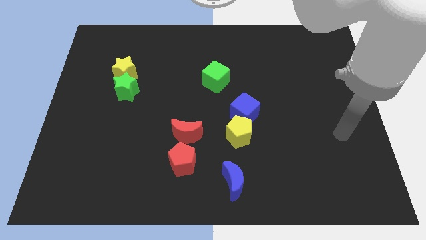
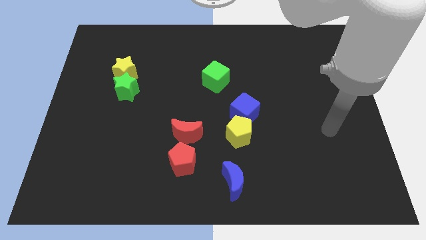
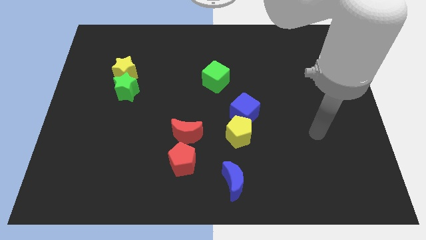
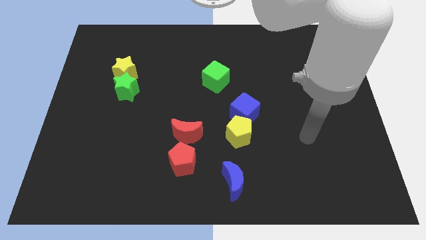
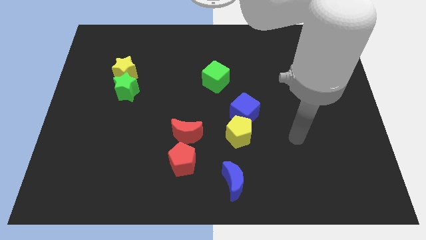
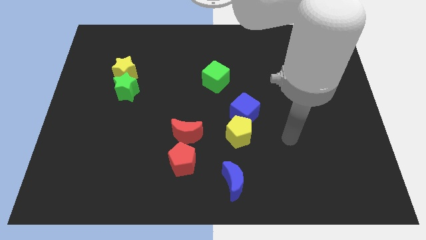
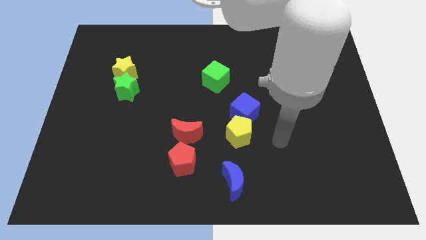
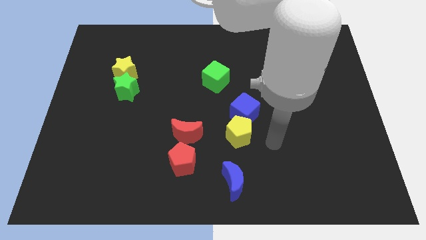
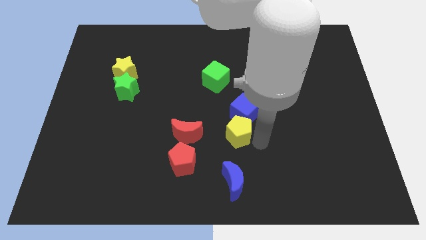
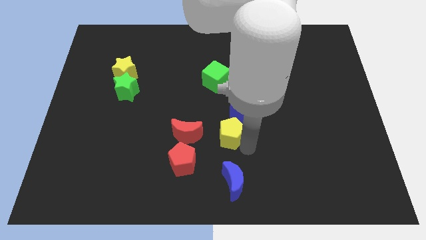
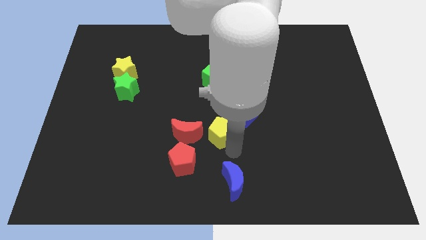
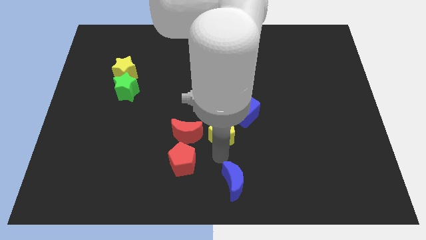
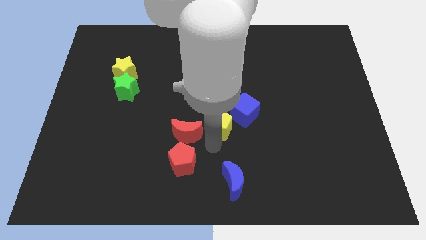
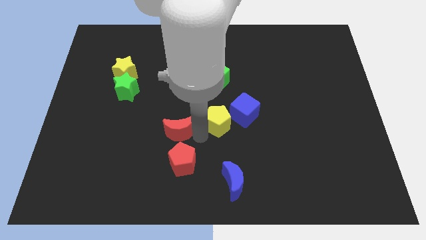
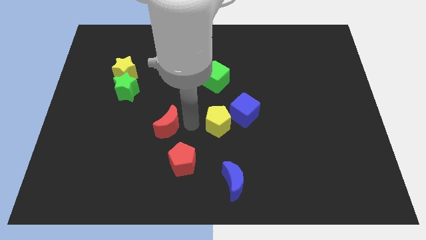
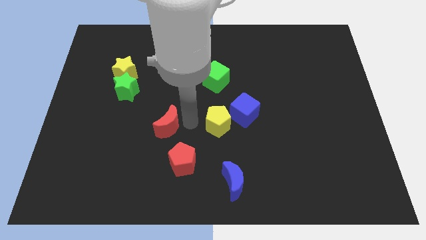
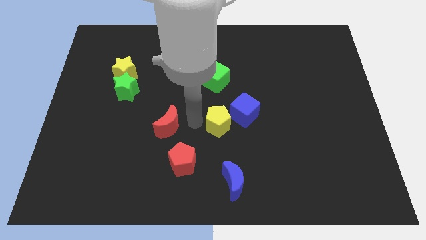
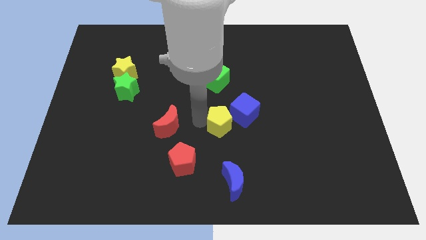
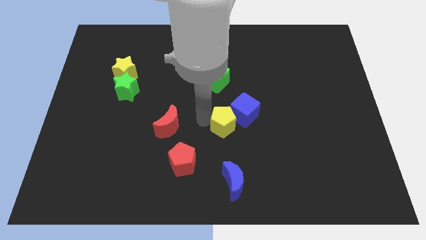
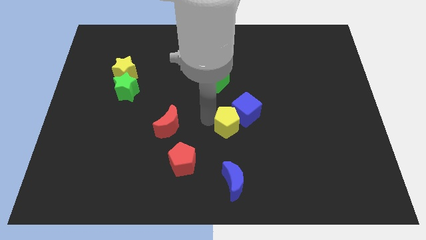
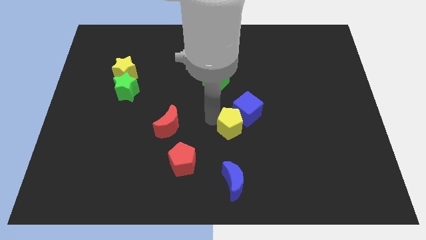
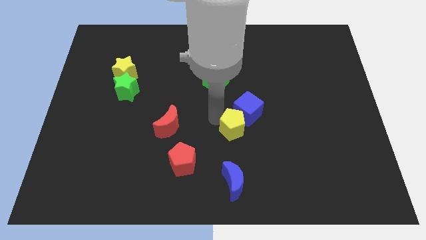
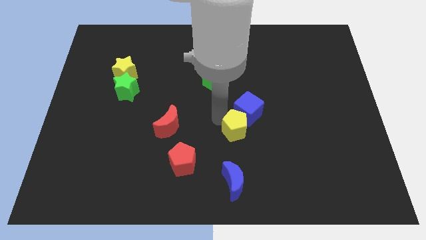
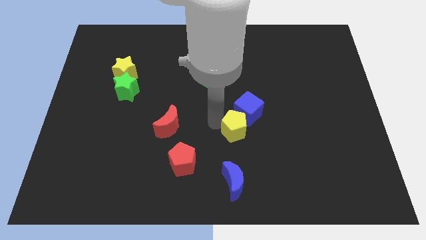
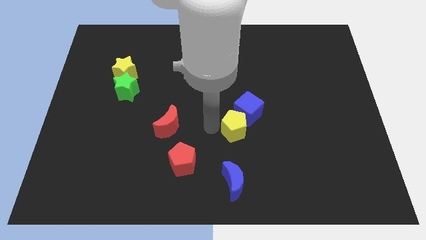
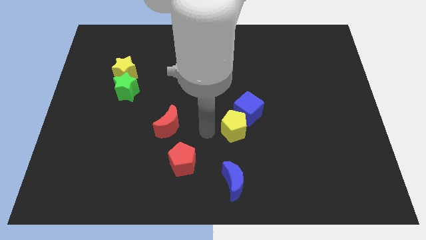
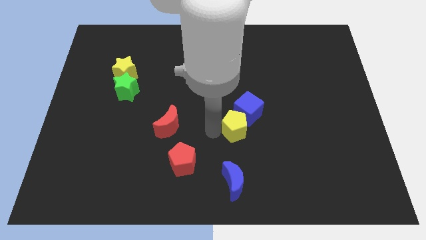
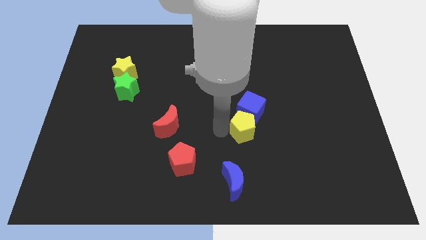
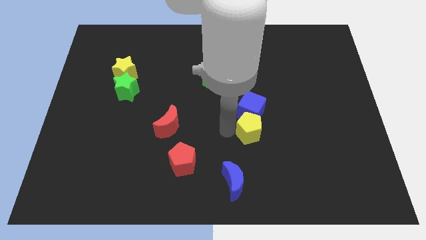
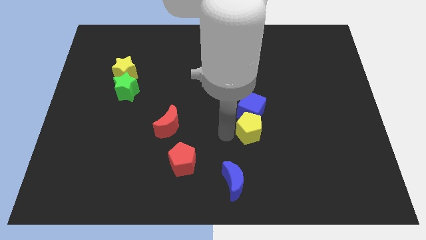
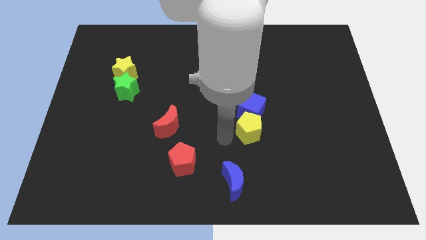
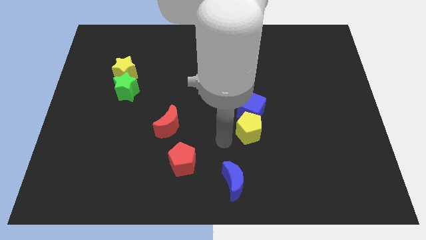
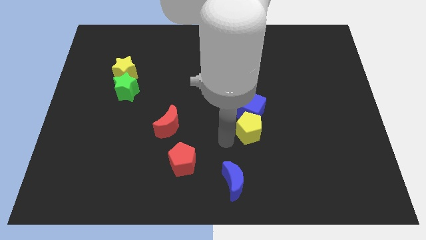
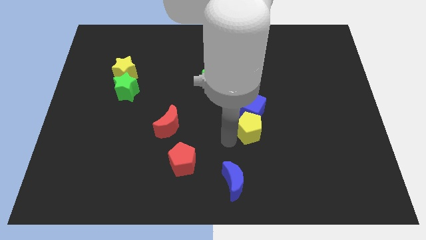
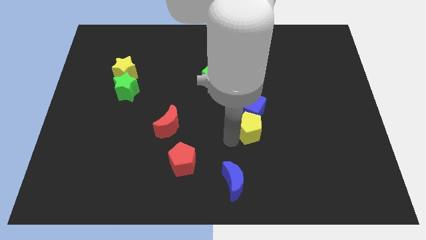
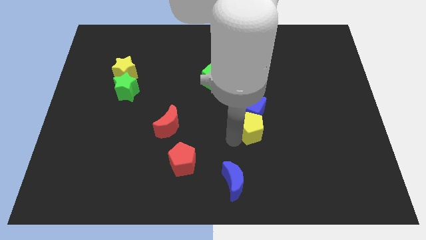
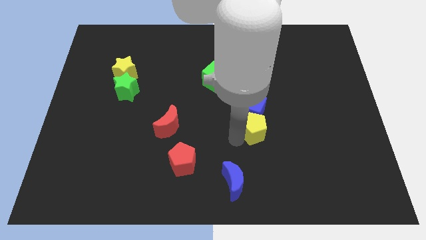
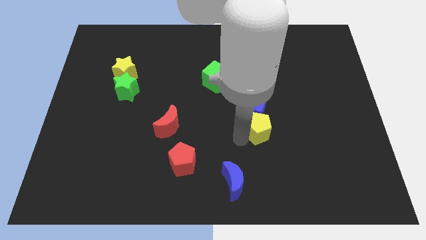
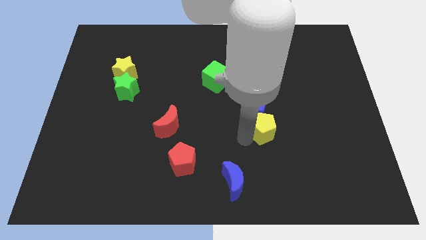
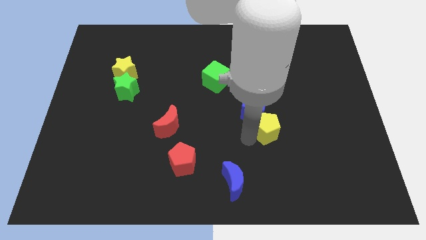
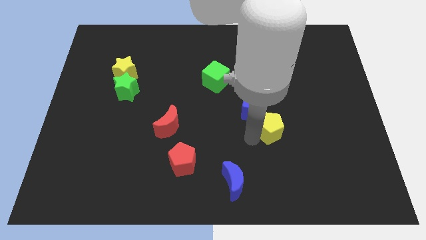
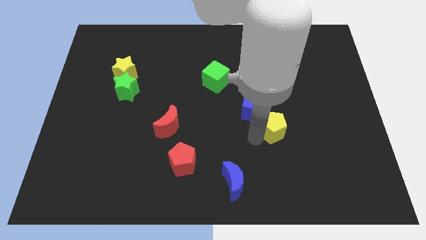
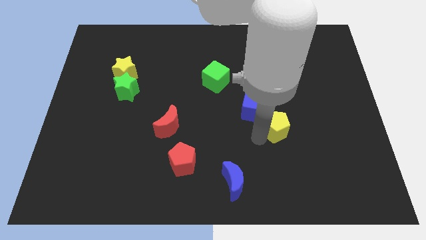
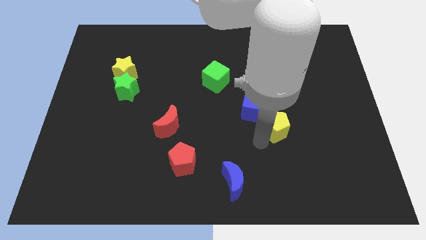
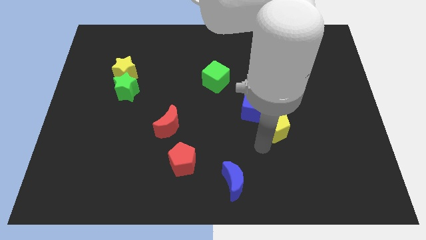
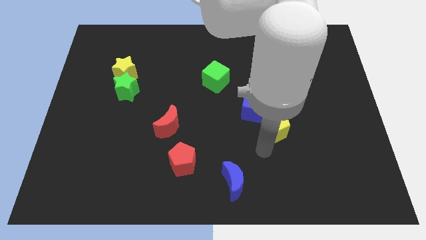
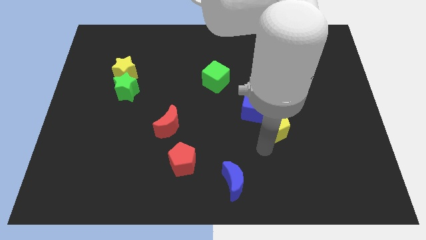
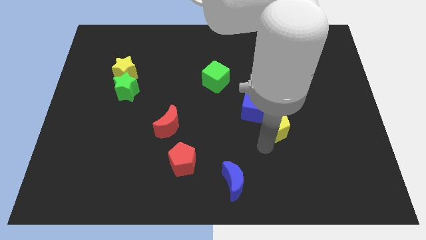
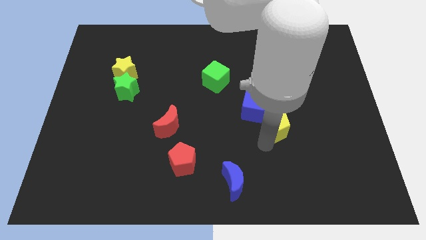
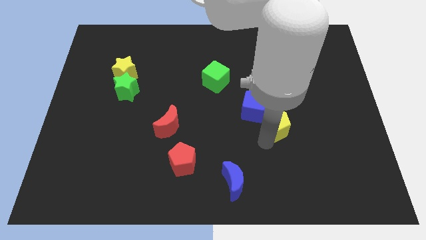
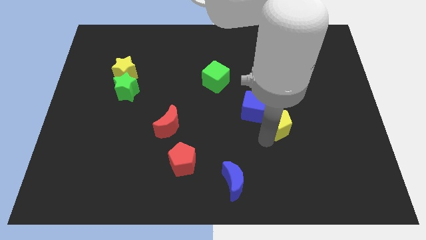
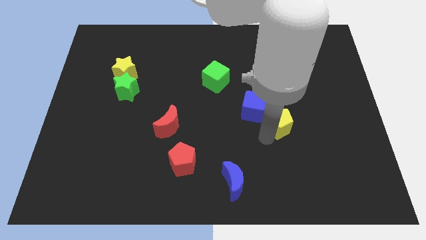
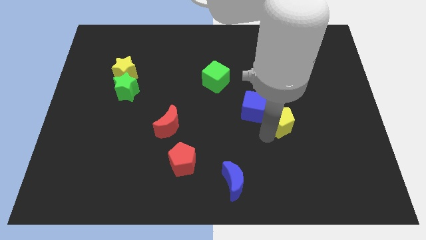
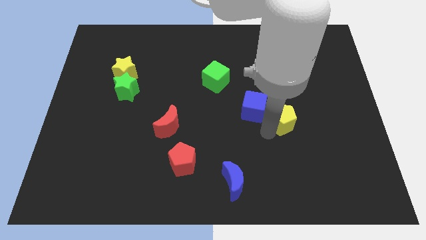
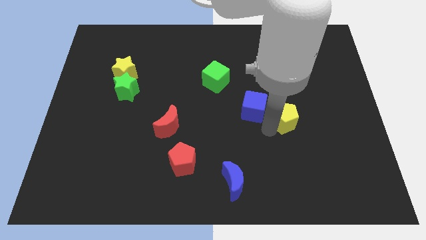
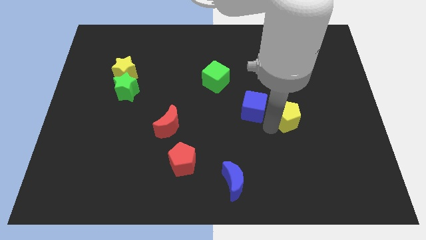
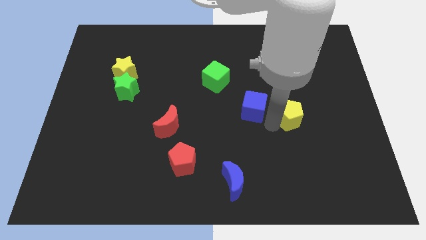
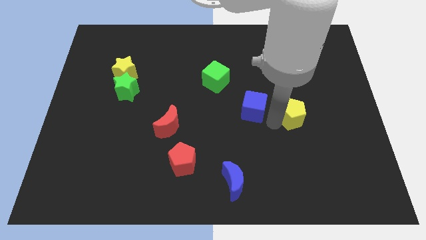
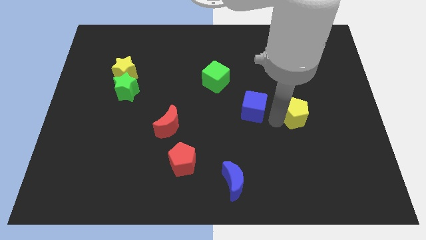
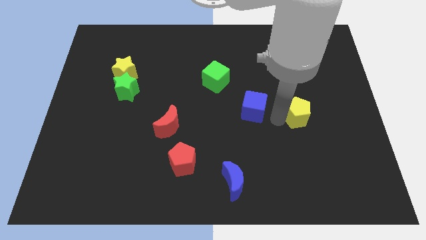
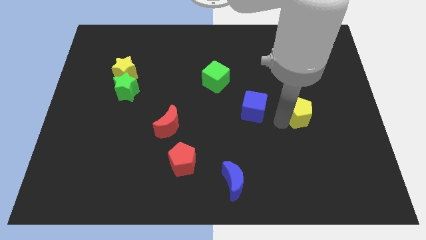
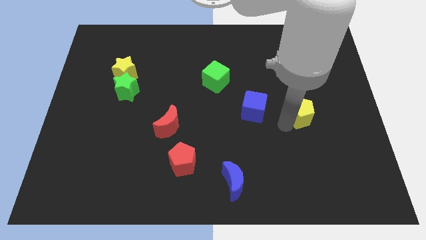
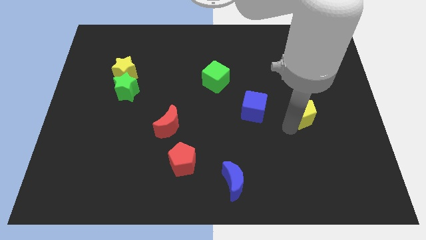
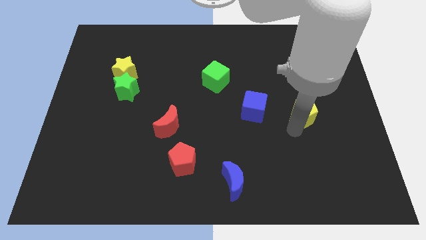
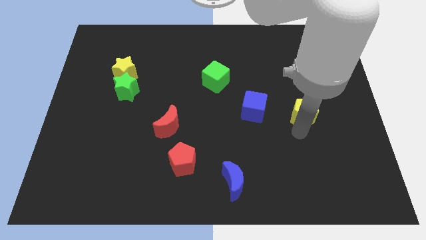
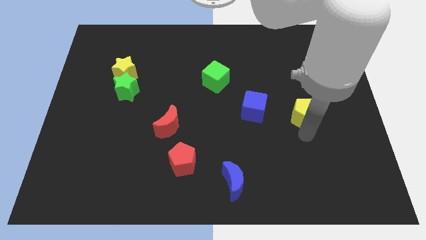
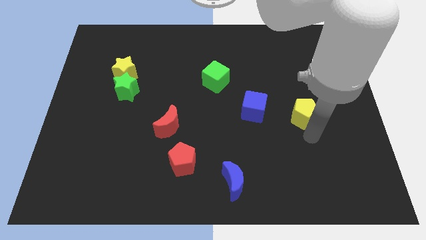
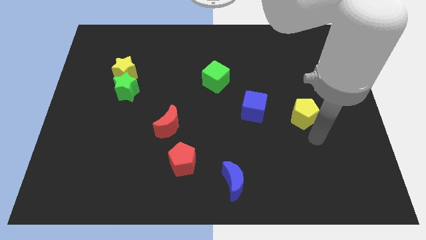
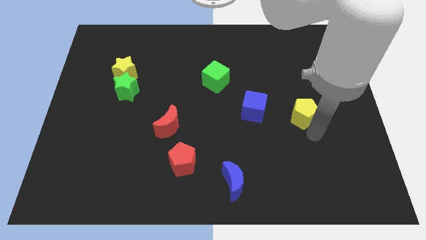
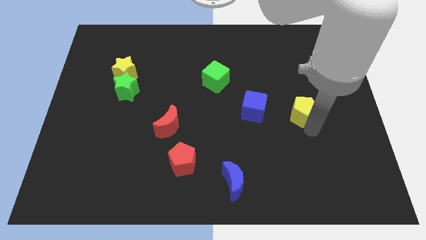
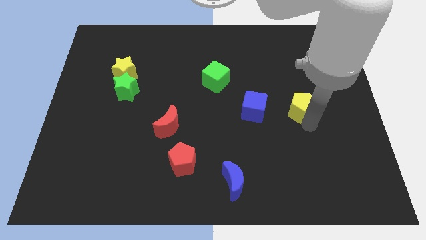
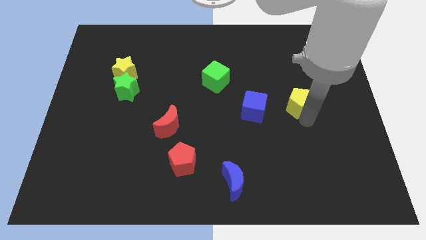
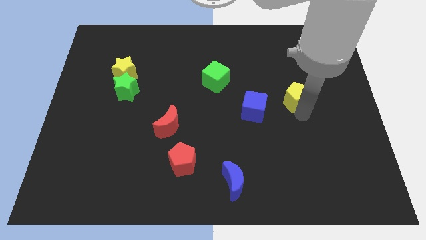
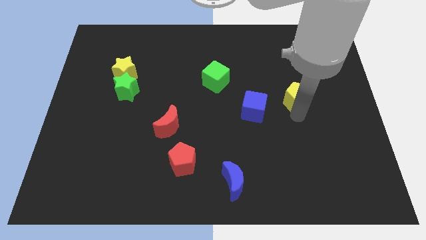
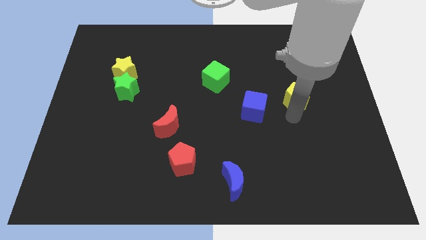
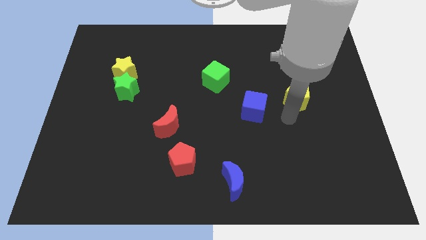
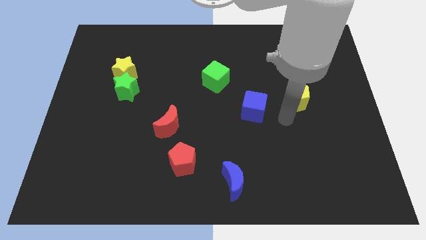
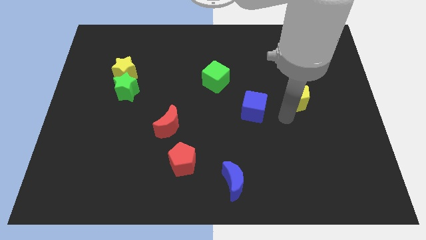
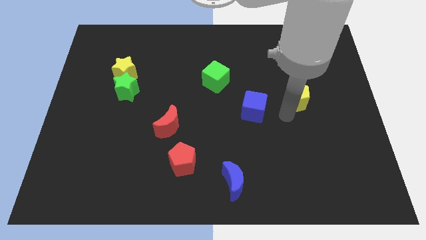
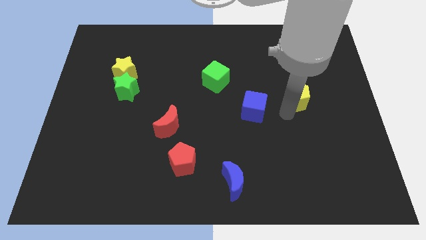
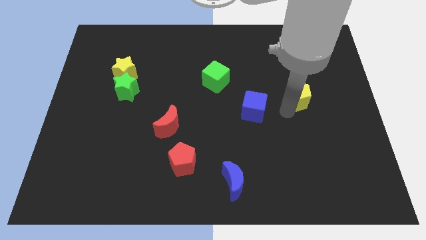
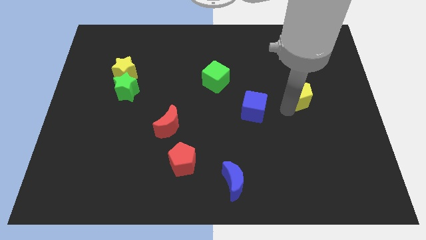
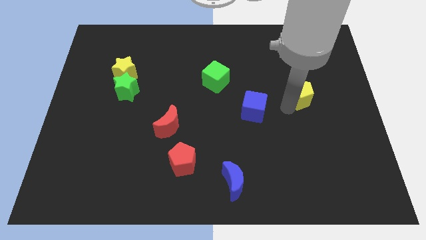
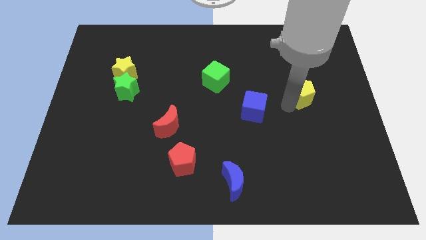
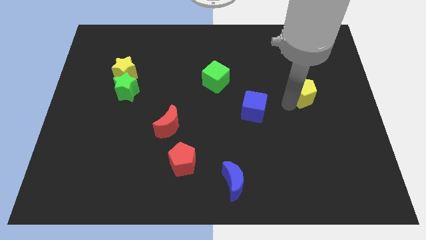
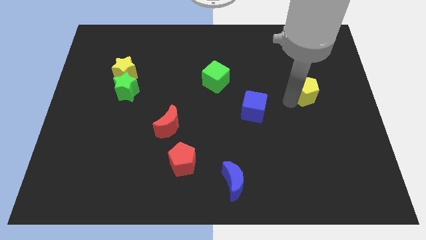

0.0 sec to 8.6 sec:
move the yellow pentagon upwards and right diagonally
